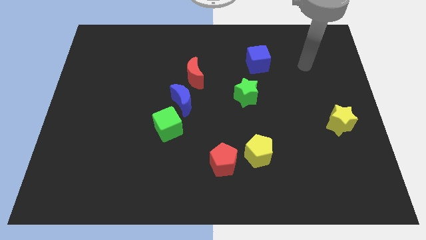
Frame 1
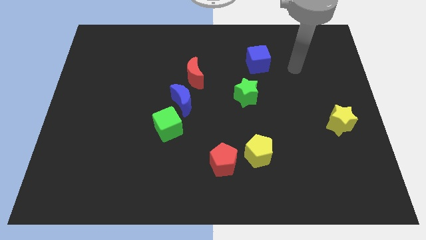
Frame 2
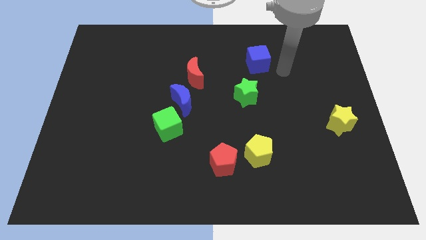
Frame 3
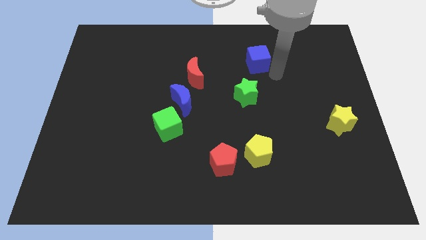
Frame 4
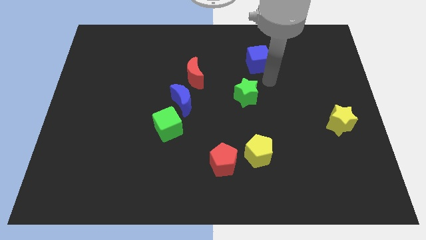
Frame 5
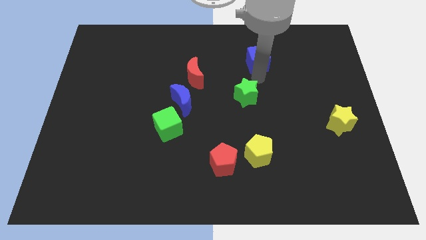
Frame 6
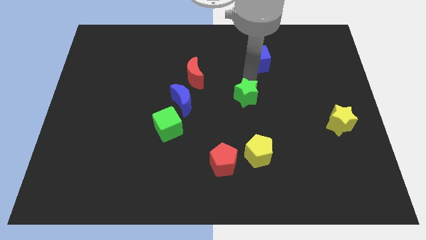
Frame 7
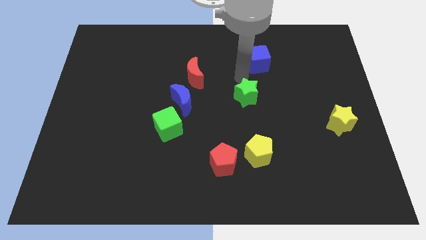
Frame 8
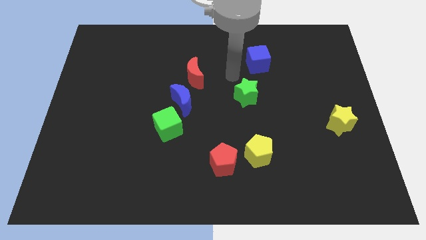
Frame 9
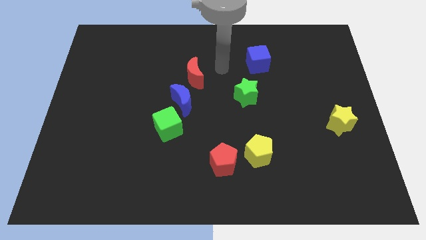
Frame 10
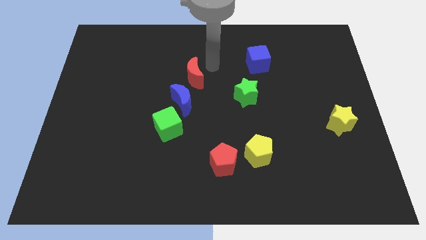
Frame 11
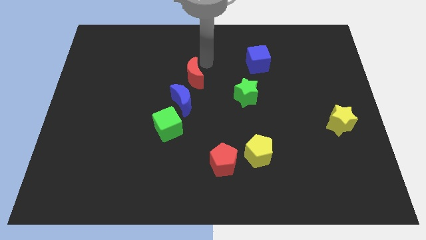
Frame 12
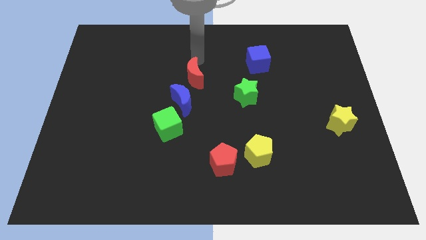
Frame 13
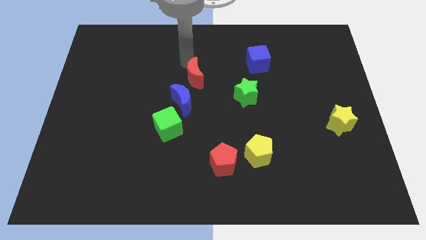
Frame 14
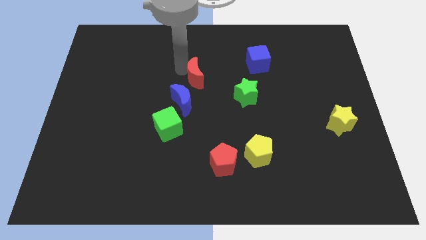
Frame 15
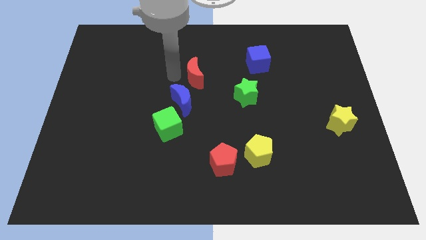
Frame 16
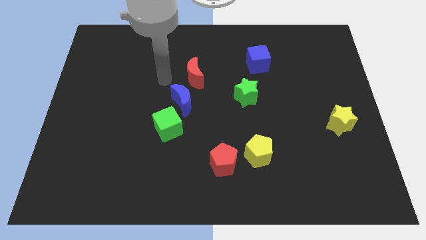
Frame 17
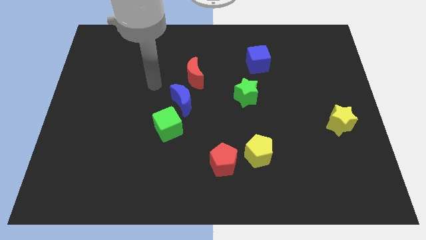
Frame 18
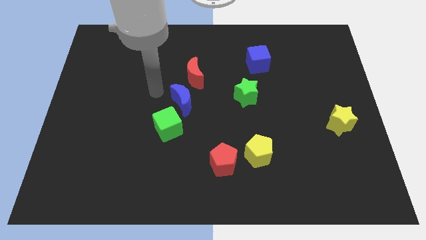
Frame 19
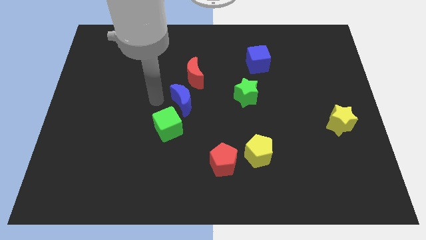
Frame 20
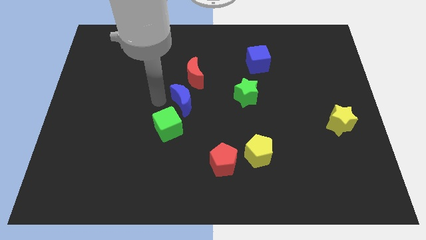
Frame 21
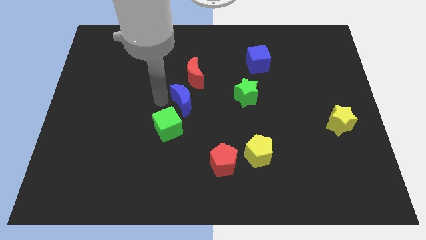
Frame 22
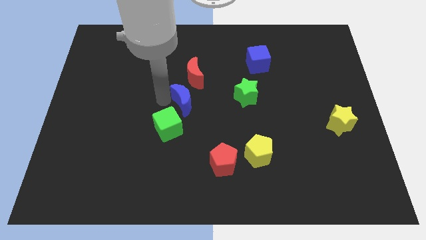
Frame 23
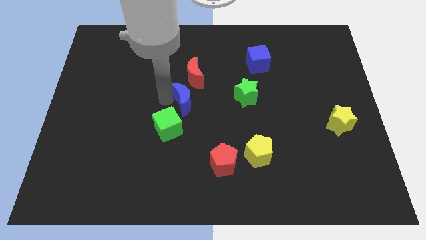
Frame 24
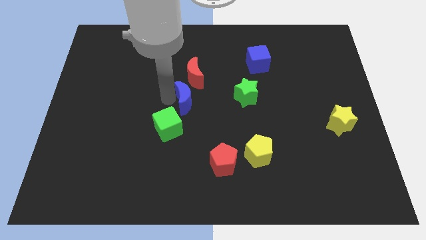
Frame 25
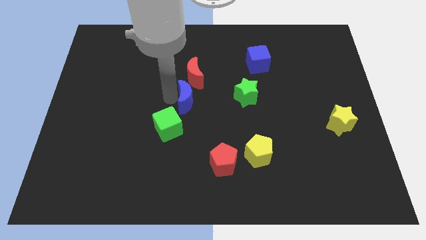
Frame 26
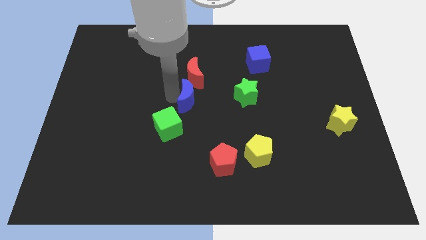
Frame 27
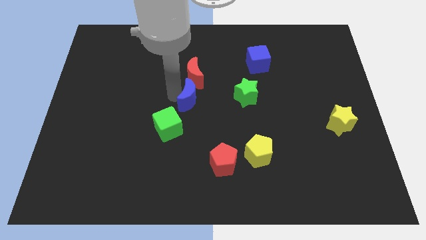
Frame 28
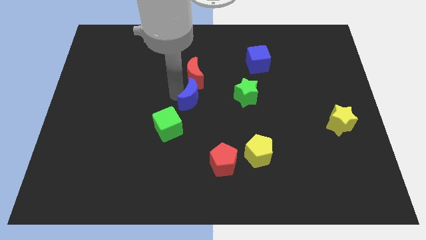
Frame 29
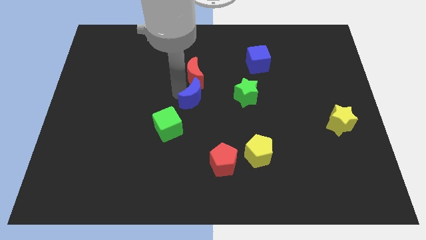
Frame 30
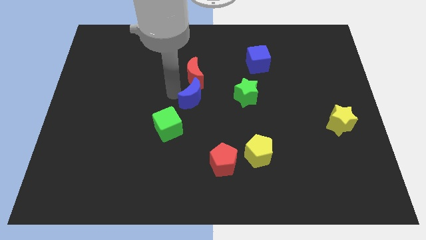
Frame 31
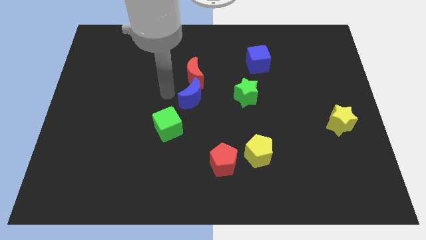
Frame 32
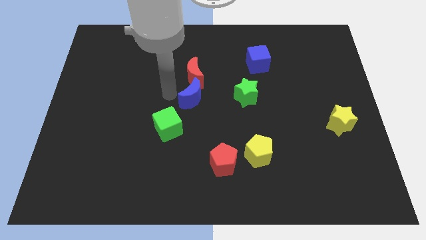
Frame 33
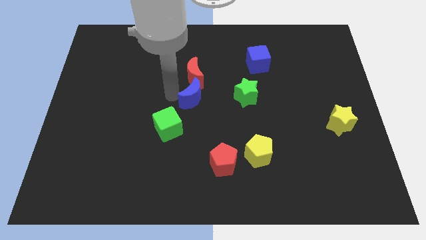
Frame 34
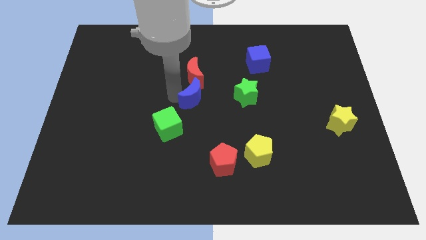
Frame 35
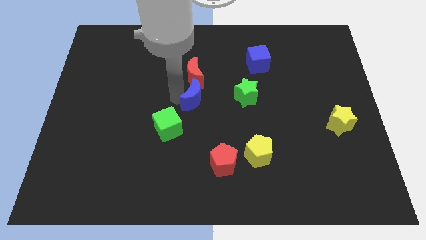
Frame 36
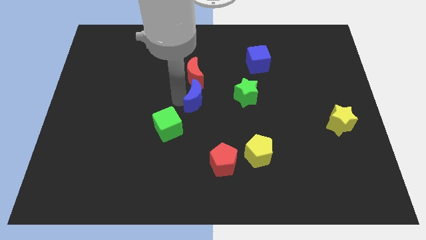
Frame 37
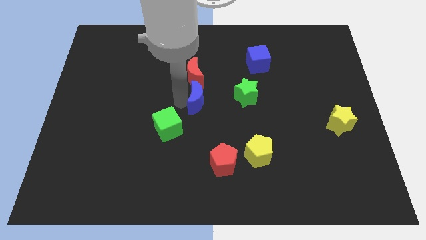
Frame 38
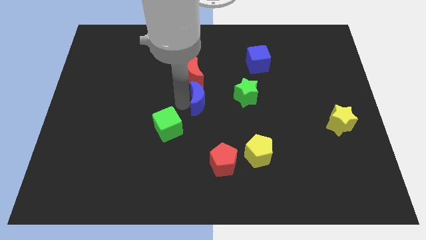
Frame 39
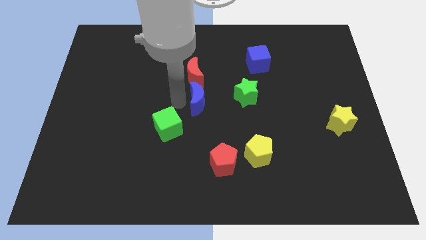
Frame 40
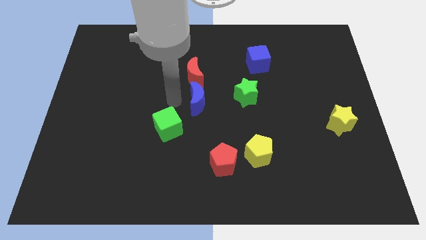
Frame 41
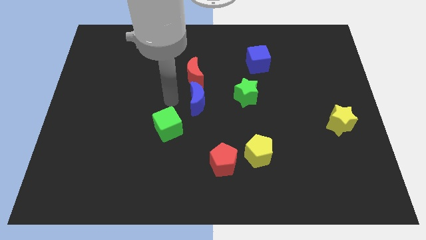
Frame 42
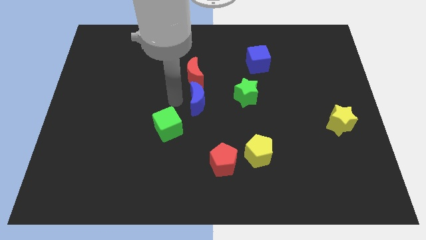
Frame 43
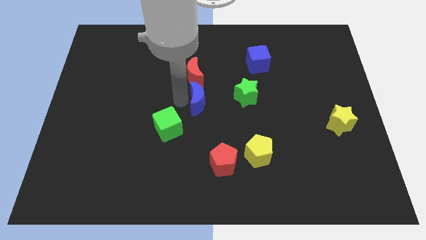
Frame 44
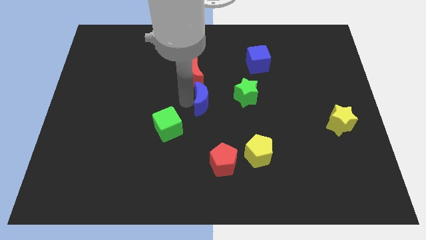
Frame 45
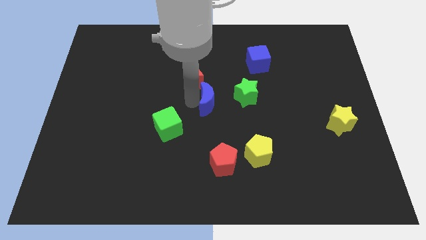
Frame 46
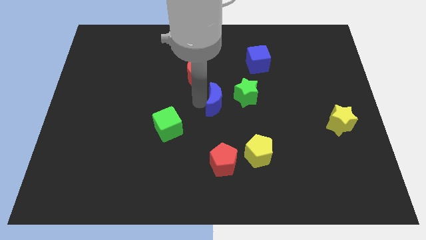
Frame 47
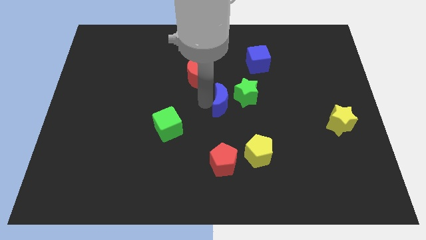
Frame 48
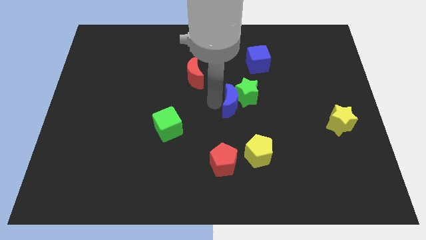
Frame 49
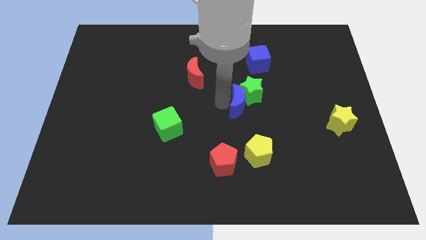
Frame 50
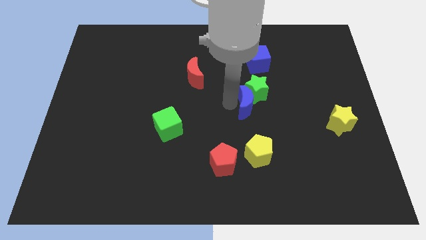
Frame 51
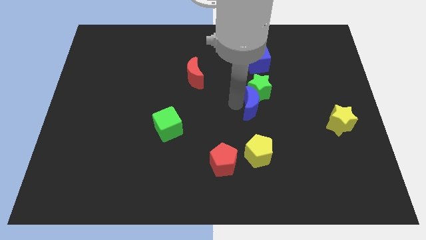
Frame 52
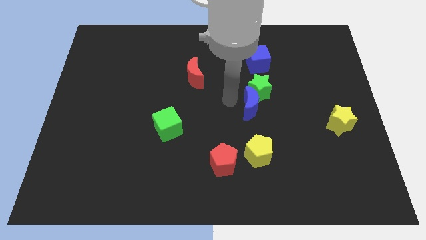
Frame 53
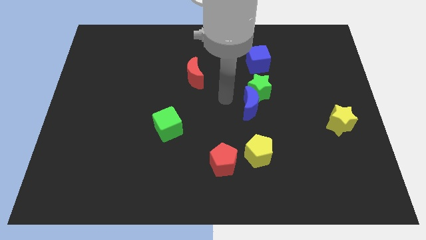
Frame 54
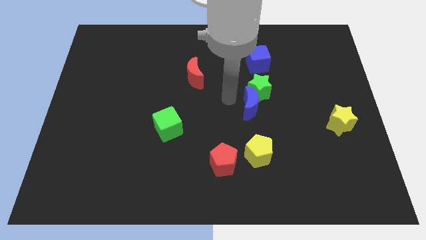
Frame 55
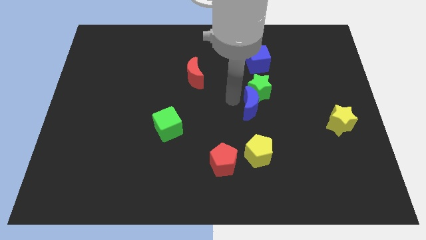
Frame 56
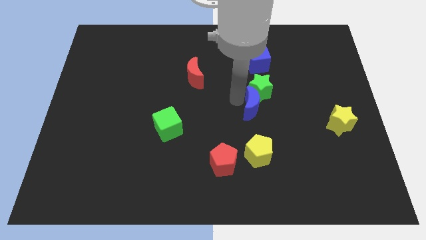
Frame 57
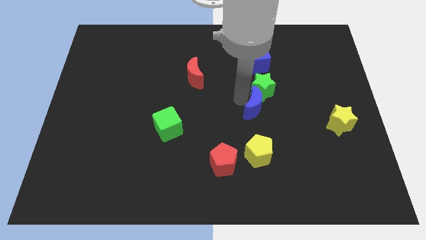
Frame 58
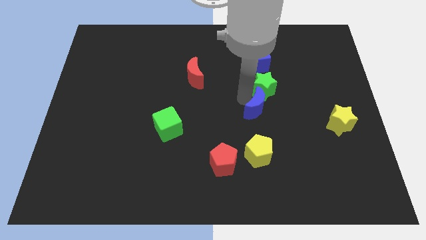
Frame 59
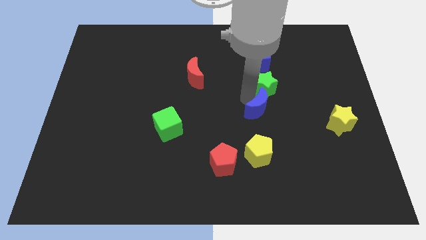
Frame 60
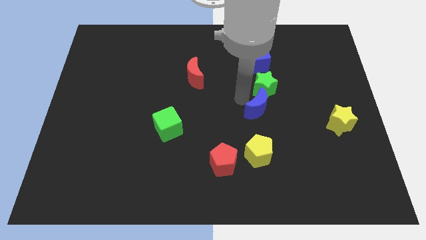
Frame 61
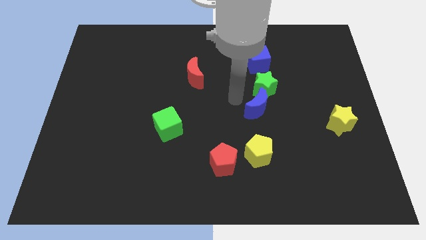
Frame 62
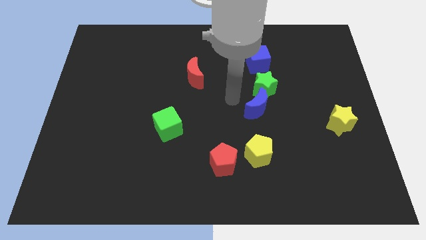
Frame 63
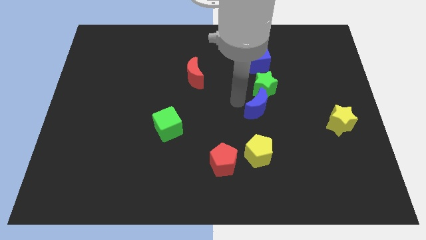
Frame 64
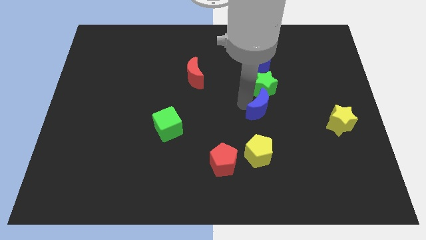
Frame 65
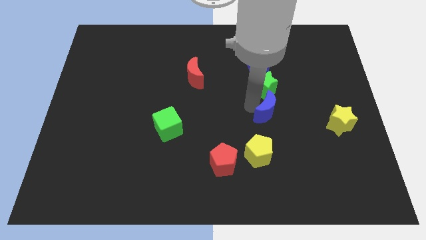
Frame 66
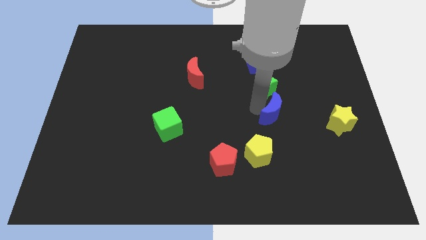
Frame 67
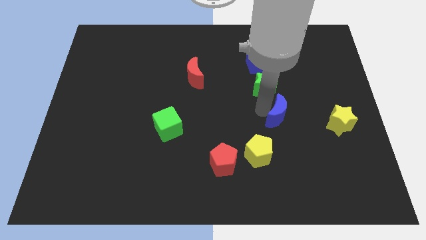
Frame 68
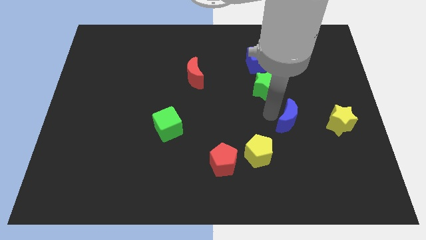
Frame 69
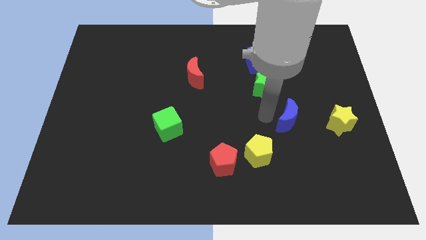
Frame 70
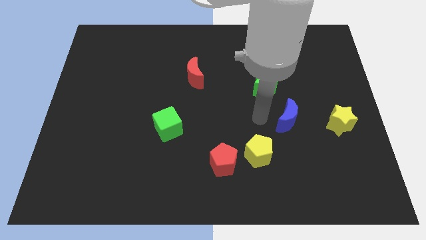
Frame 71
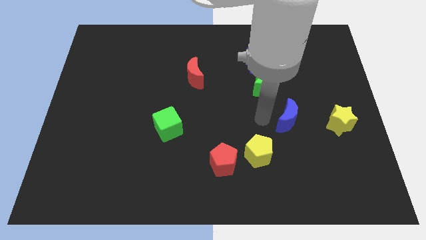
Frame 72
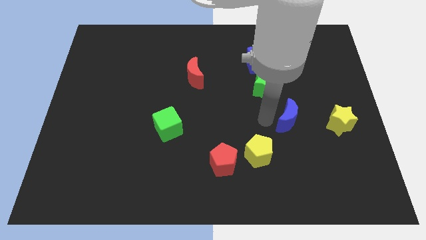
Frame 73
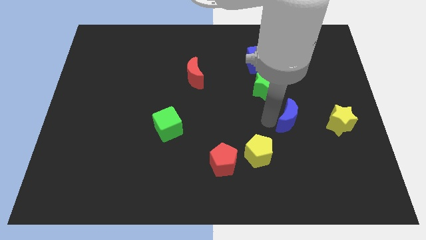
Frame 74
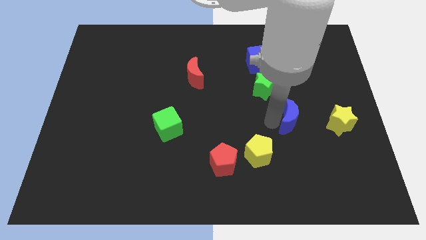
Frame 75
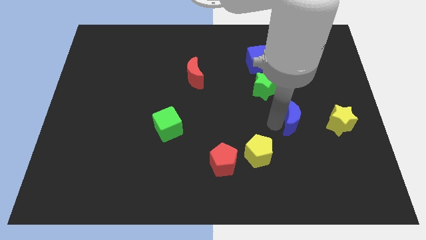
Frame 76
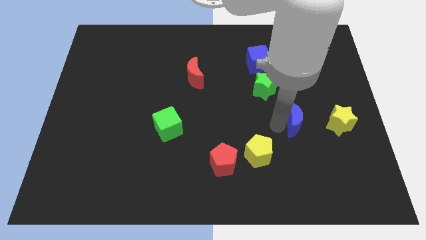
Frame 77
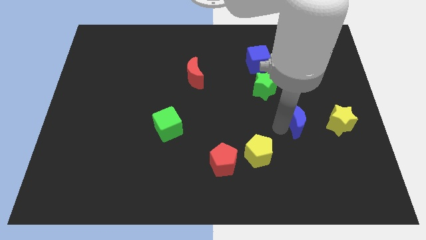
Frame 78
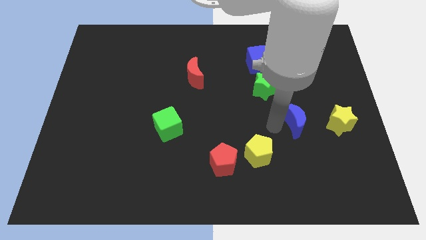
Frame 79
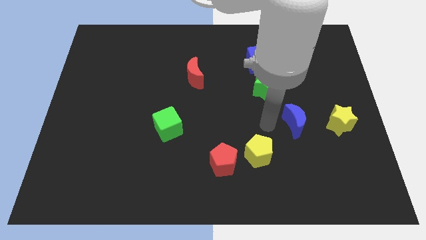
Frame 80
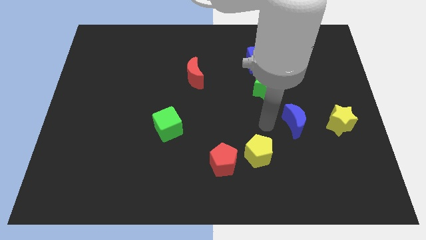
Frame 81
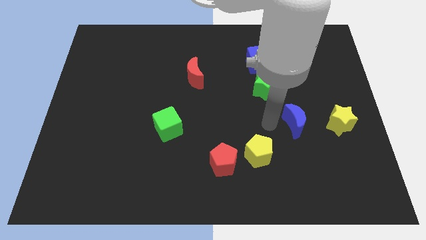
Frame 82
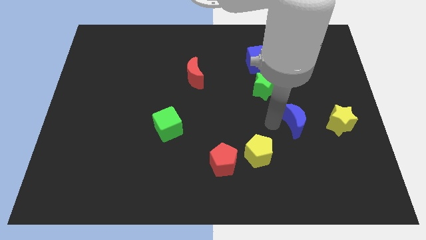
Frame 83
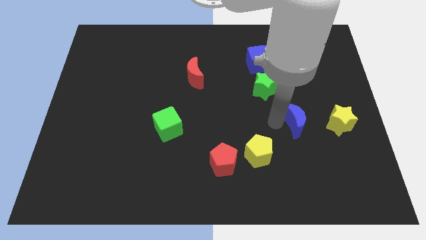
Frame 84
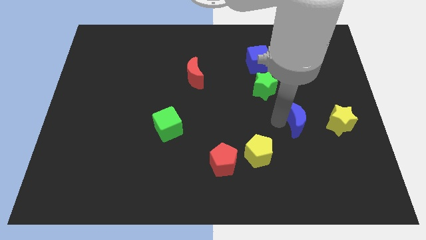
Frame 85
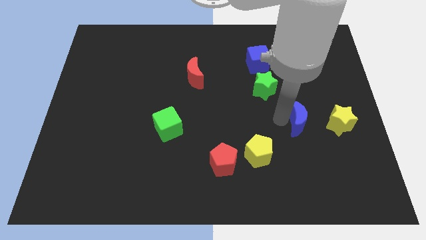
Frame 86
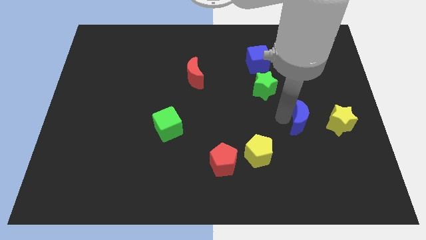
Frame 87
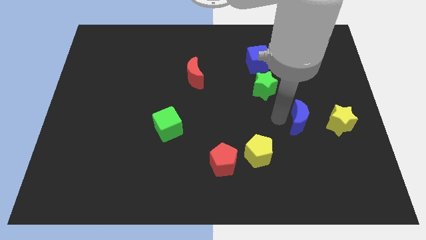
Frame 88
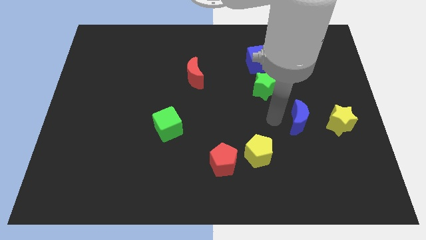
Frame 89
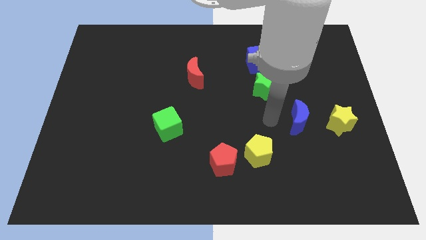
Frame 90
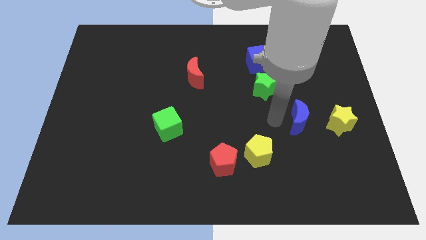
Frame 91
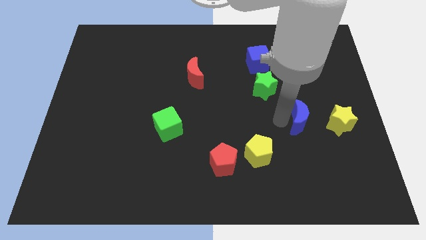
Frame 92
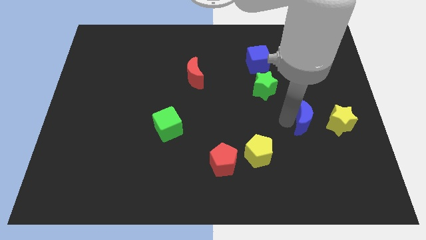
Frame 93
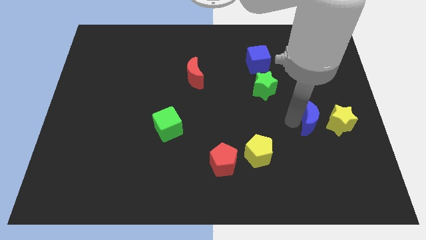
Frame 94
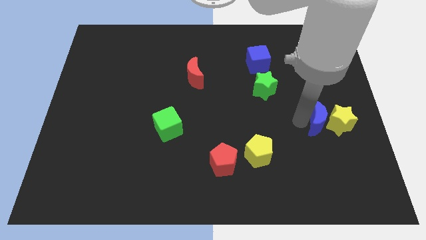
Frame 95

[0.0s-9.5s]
push the blue moon towards the yellow star
